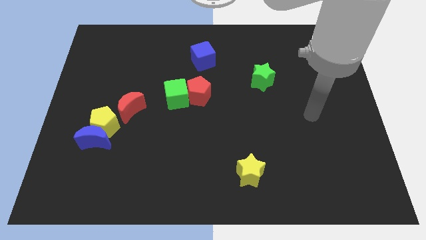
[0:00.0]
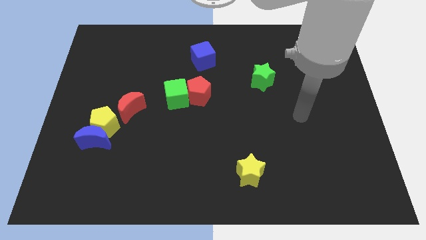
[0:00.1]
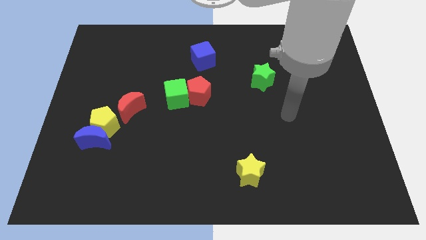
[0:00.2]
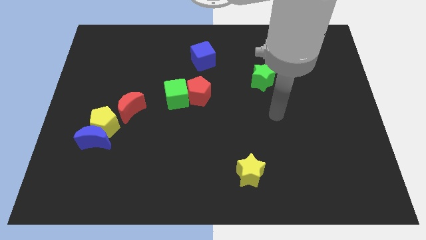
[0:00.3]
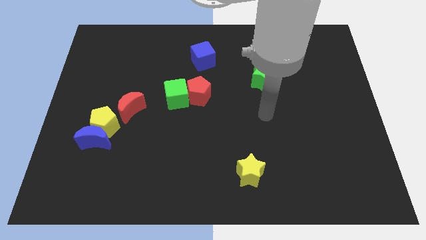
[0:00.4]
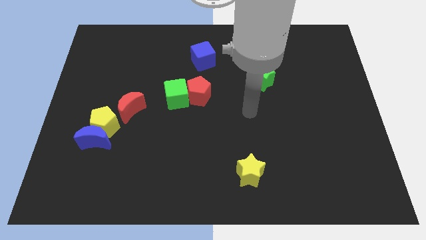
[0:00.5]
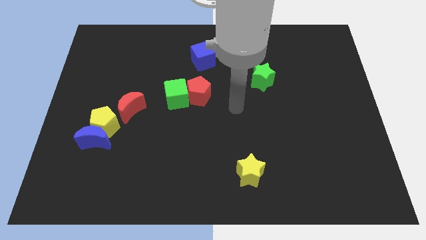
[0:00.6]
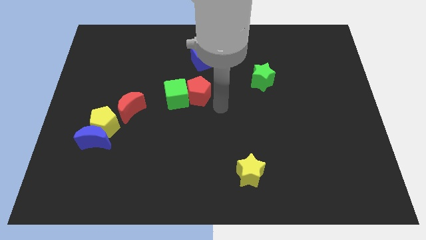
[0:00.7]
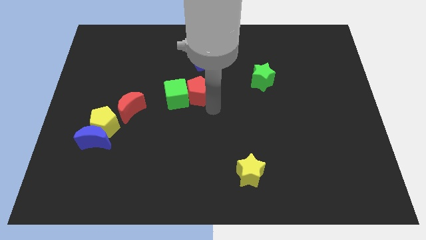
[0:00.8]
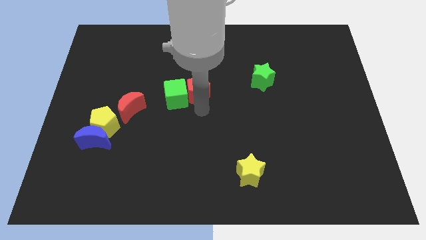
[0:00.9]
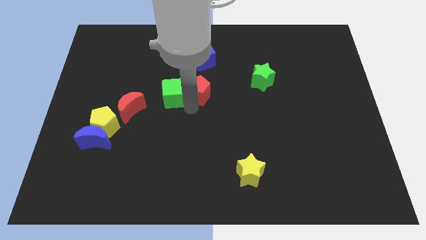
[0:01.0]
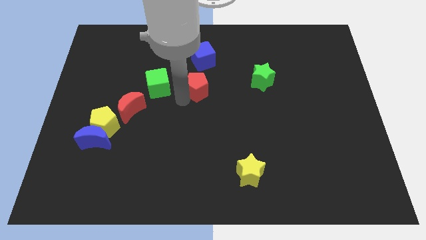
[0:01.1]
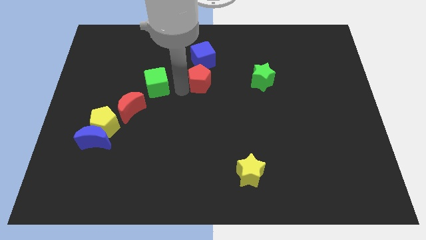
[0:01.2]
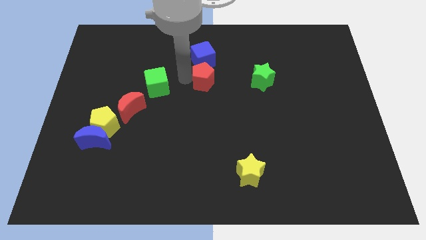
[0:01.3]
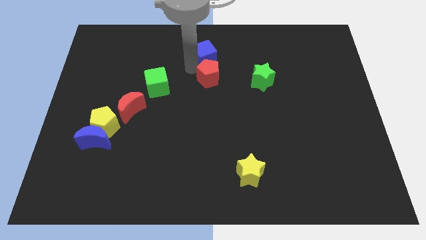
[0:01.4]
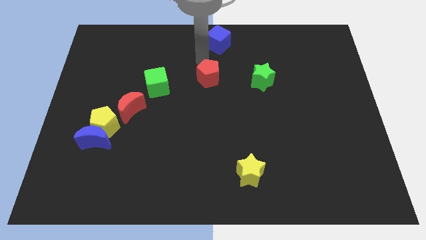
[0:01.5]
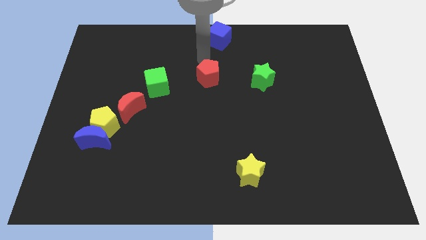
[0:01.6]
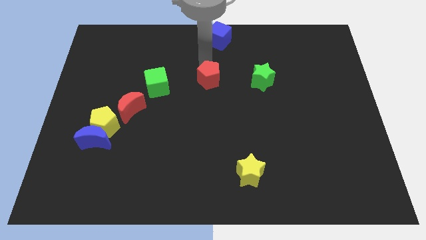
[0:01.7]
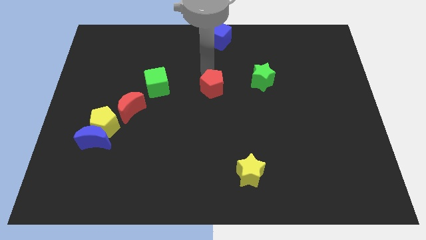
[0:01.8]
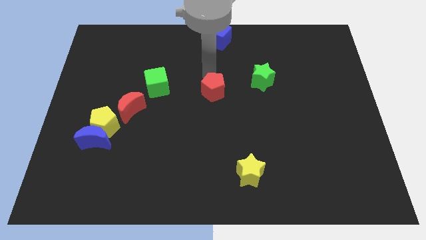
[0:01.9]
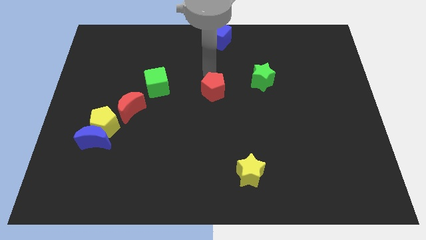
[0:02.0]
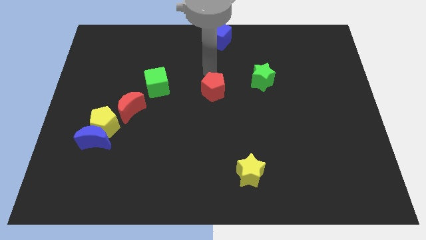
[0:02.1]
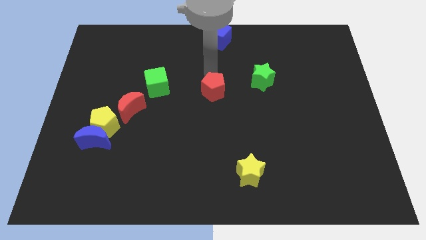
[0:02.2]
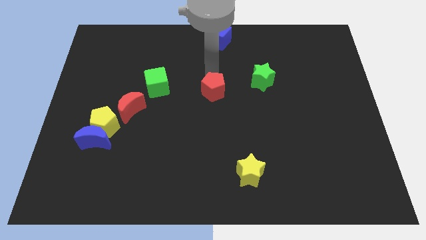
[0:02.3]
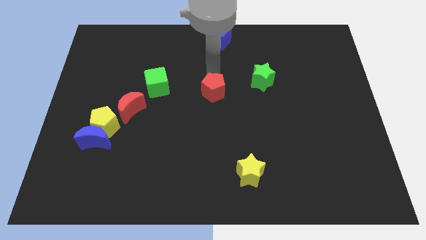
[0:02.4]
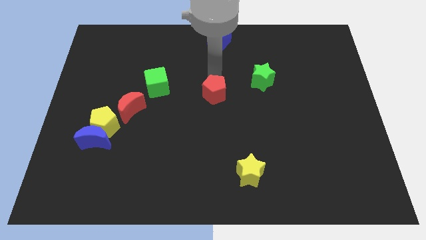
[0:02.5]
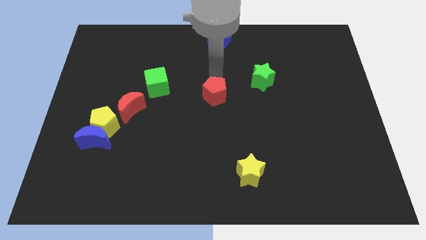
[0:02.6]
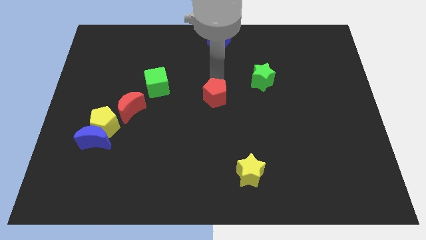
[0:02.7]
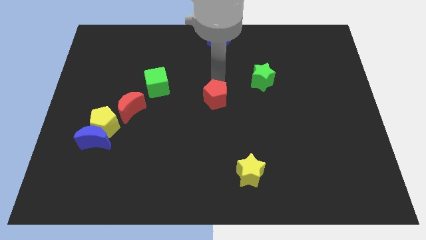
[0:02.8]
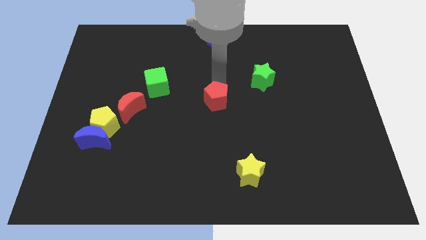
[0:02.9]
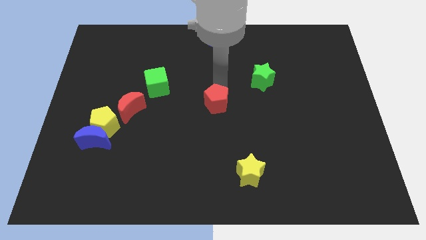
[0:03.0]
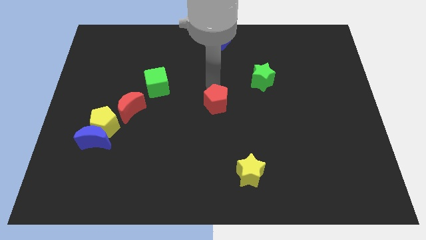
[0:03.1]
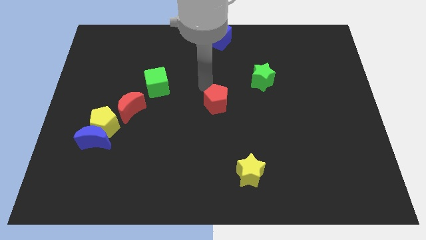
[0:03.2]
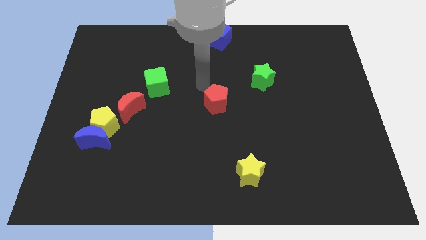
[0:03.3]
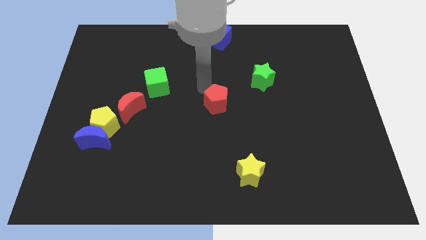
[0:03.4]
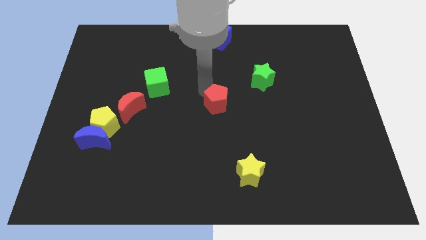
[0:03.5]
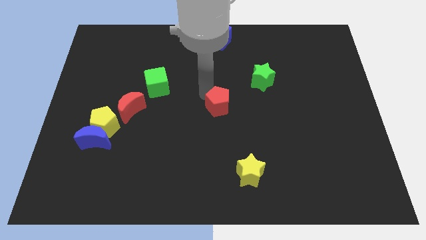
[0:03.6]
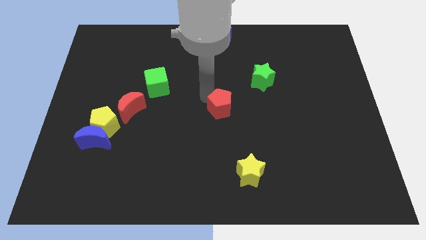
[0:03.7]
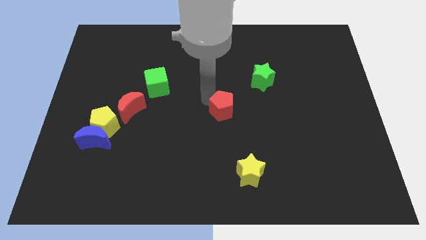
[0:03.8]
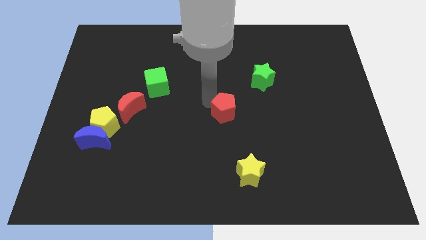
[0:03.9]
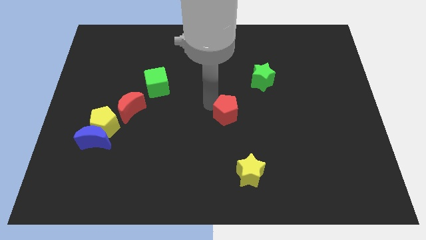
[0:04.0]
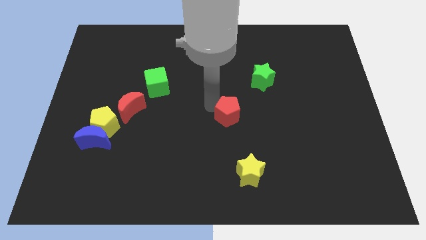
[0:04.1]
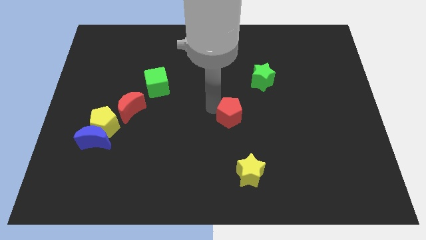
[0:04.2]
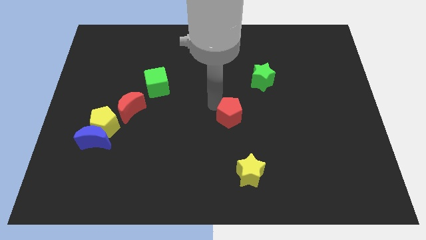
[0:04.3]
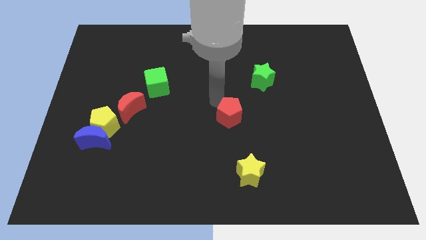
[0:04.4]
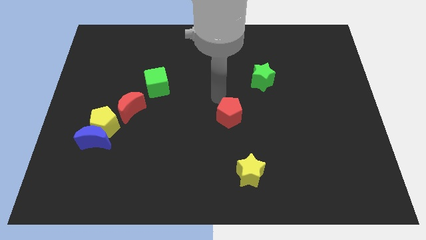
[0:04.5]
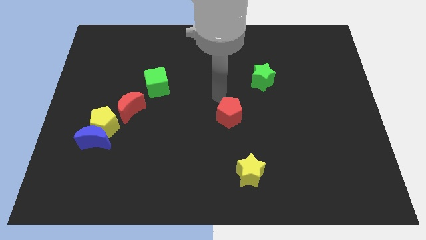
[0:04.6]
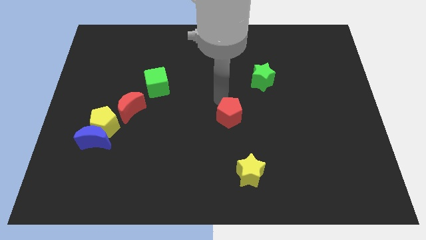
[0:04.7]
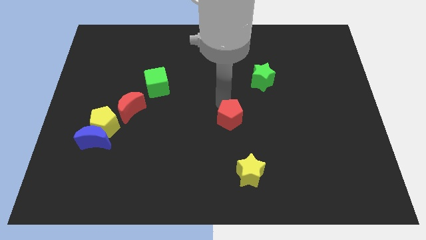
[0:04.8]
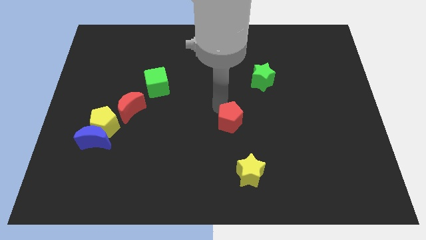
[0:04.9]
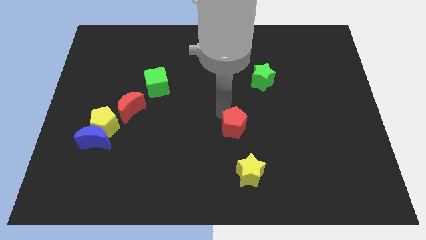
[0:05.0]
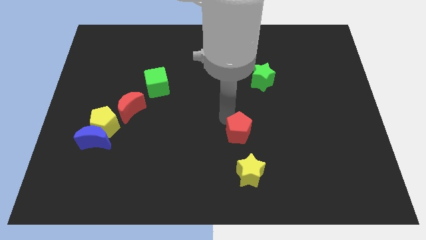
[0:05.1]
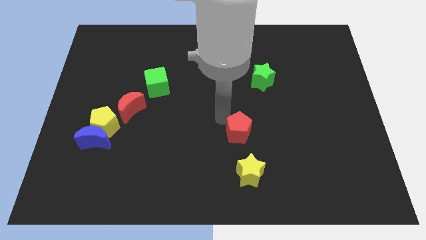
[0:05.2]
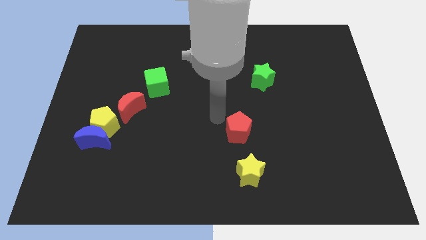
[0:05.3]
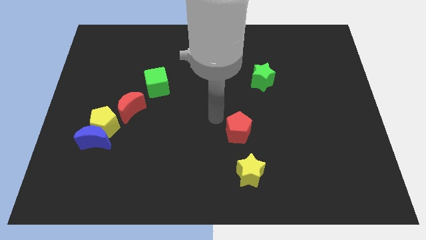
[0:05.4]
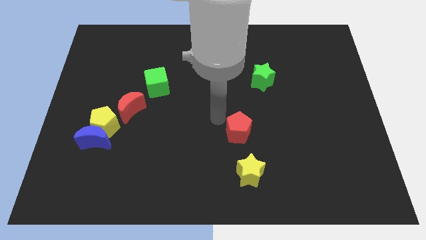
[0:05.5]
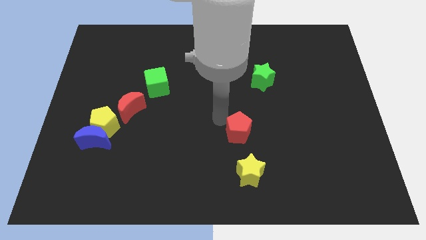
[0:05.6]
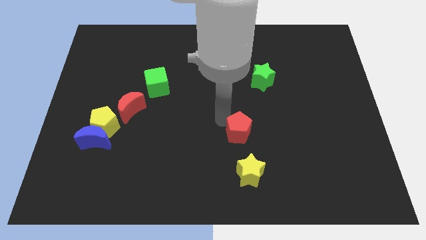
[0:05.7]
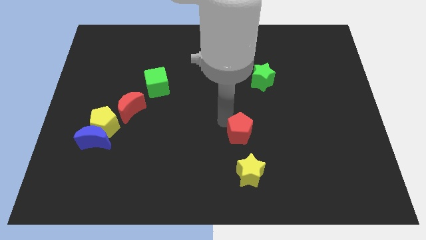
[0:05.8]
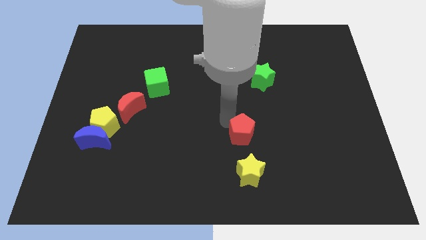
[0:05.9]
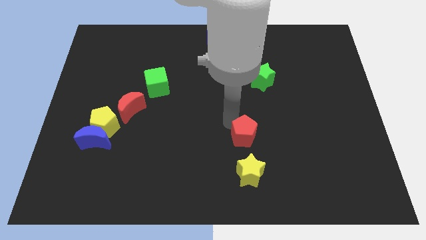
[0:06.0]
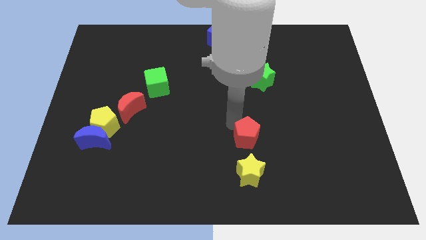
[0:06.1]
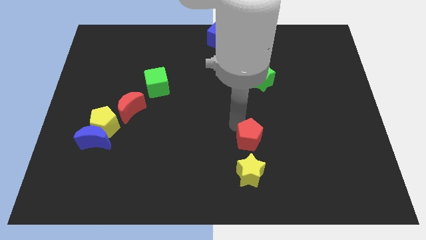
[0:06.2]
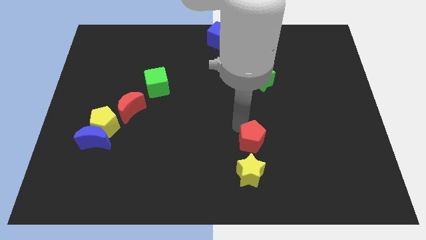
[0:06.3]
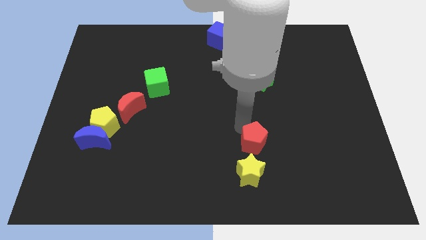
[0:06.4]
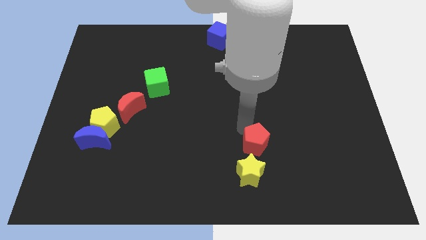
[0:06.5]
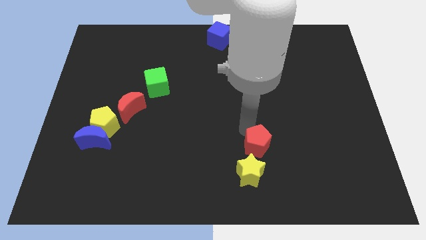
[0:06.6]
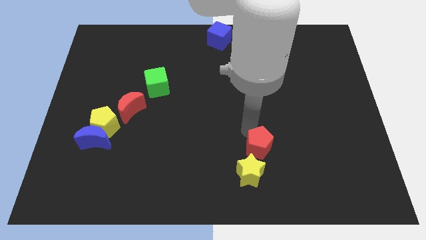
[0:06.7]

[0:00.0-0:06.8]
push the red pentagon downwards and right diagonally

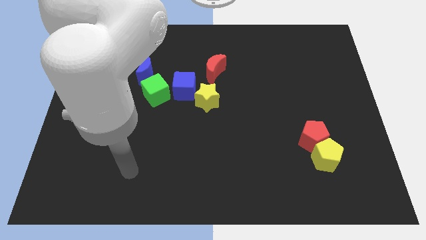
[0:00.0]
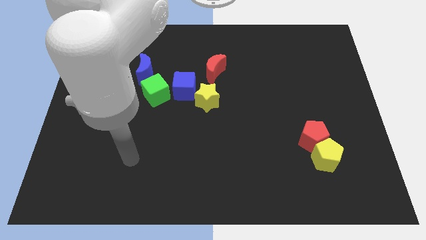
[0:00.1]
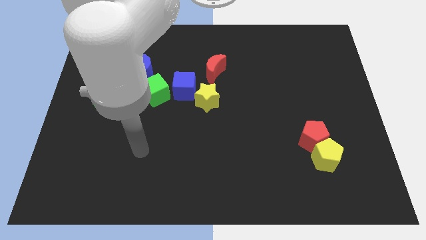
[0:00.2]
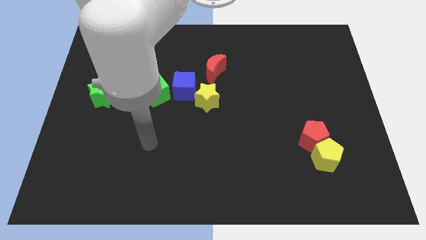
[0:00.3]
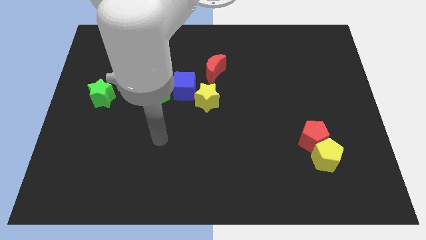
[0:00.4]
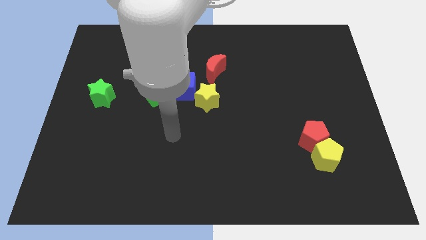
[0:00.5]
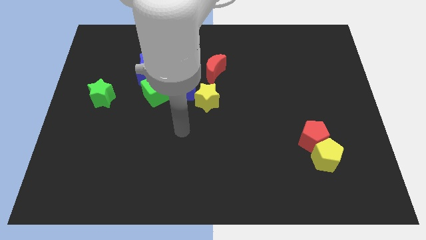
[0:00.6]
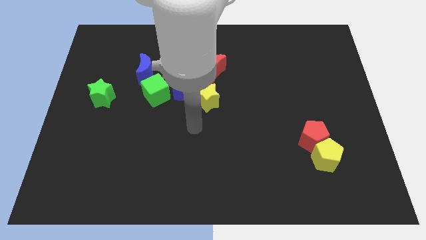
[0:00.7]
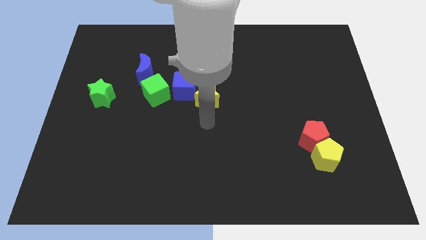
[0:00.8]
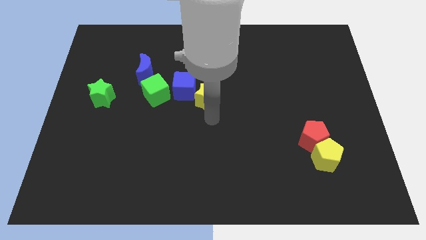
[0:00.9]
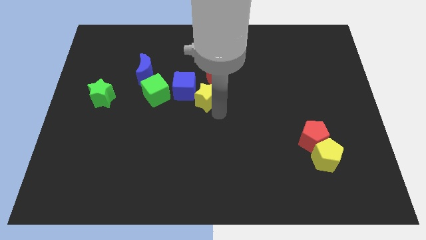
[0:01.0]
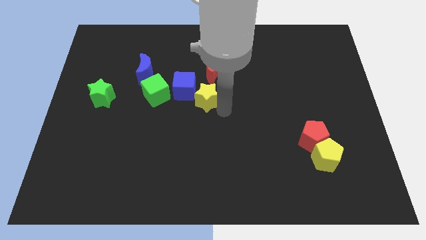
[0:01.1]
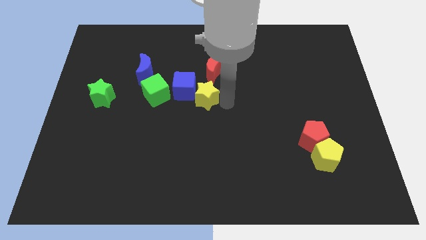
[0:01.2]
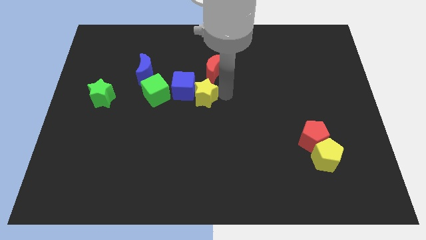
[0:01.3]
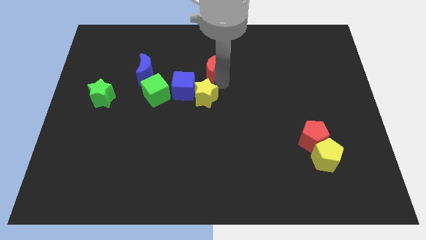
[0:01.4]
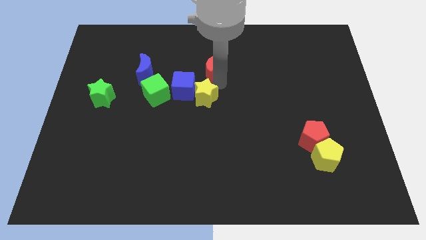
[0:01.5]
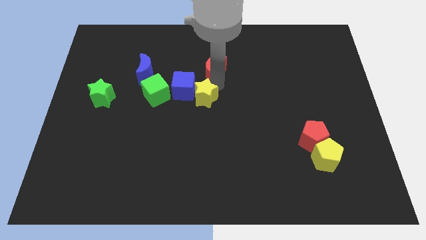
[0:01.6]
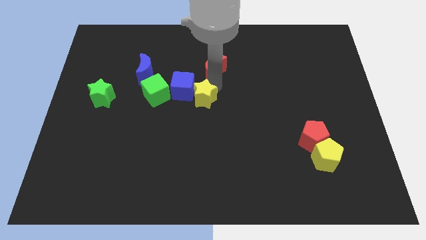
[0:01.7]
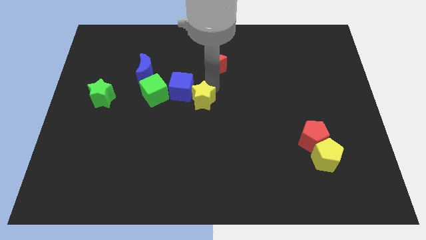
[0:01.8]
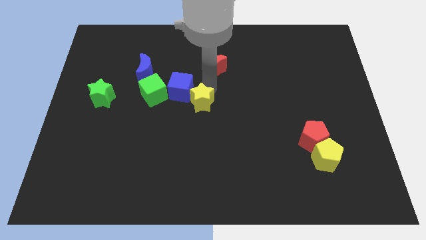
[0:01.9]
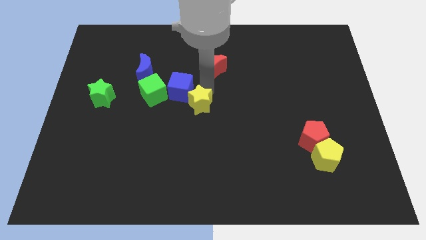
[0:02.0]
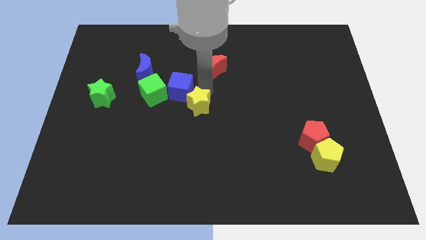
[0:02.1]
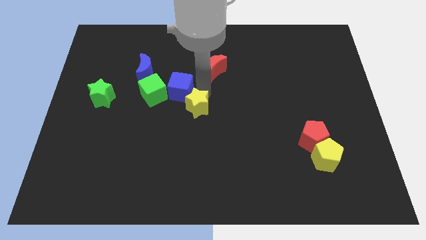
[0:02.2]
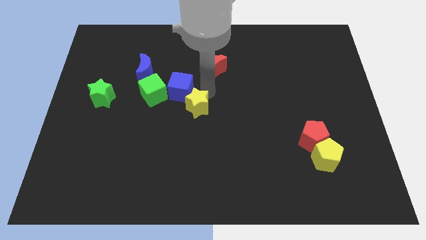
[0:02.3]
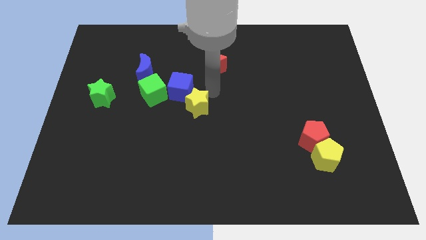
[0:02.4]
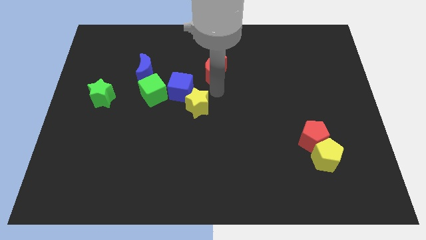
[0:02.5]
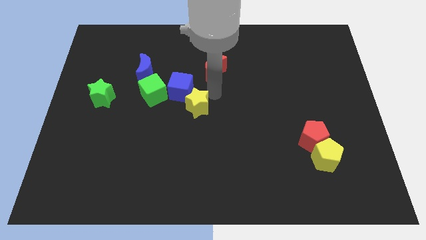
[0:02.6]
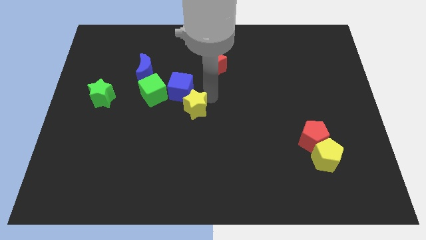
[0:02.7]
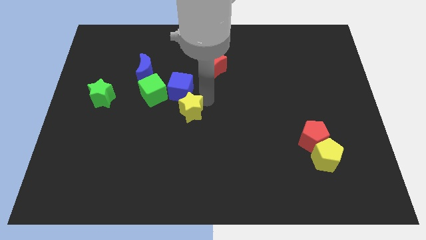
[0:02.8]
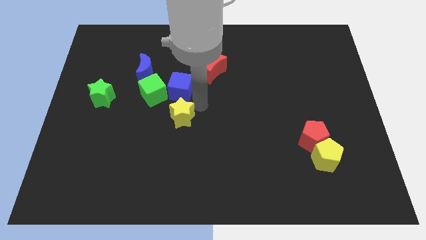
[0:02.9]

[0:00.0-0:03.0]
push the yellow star diagonally downwards and left somewhat
